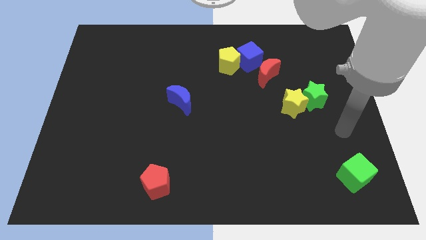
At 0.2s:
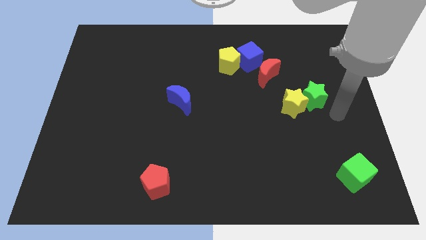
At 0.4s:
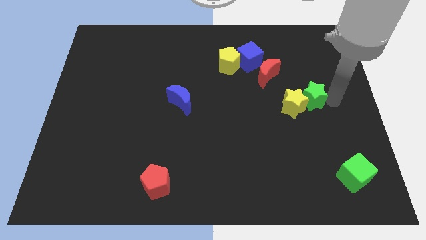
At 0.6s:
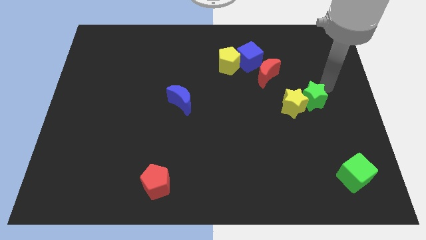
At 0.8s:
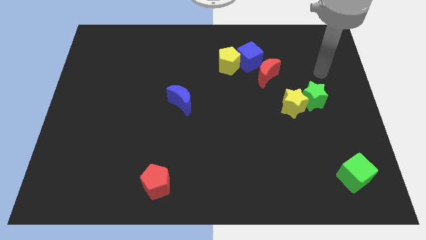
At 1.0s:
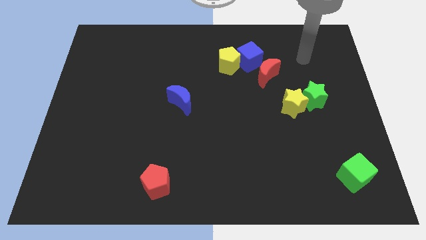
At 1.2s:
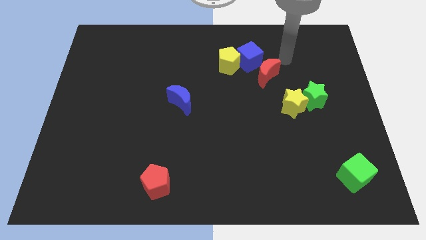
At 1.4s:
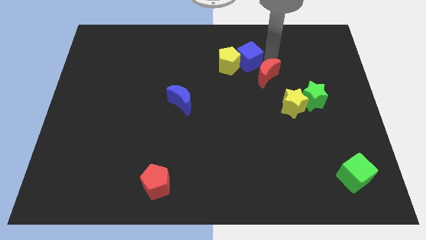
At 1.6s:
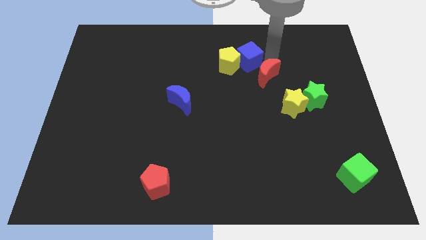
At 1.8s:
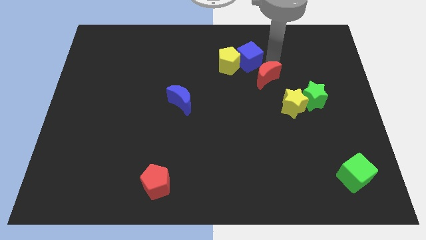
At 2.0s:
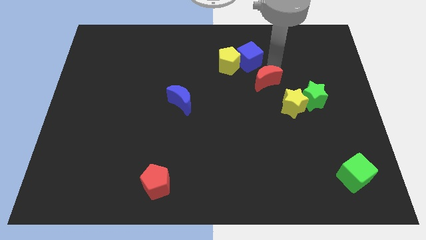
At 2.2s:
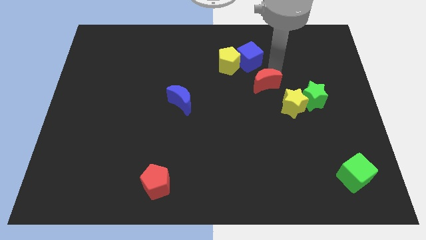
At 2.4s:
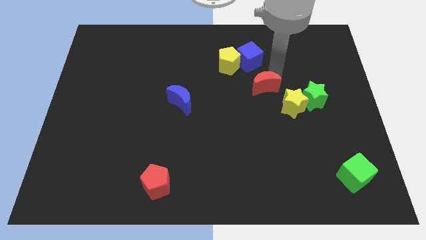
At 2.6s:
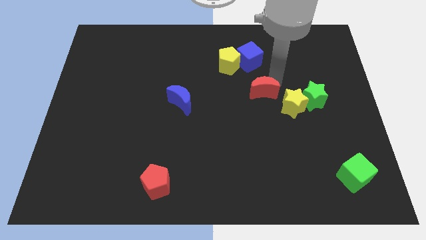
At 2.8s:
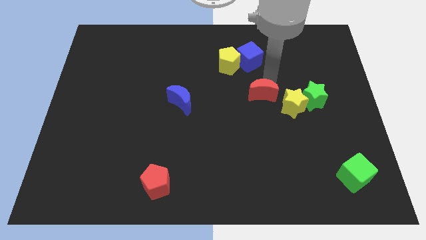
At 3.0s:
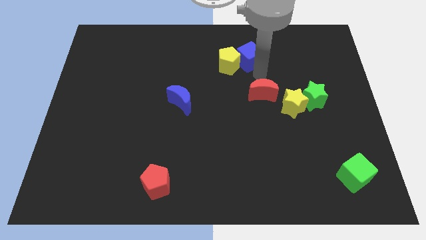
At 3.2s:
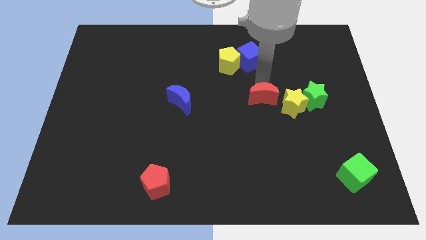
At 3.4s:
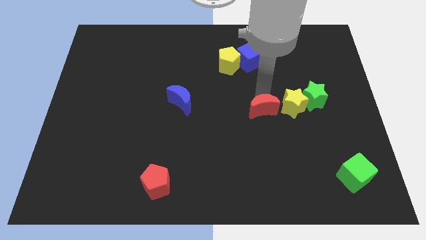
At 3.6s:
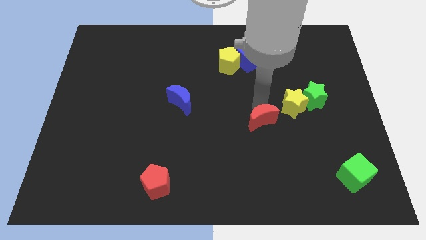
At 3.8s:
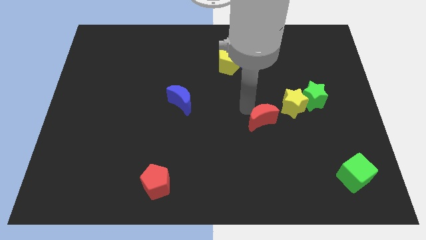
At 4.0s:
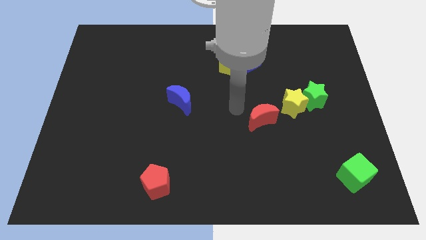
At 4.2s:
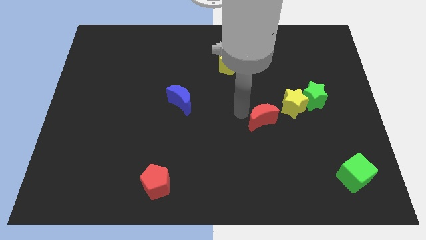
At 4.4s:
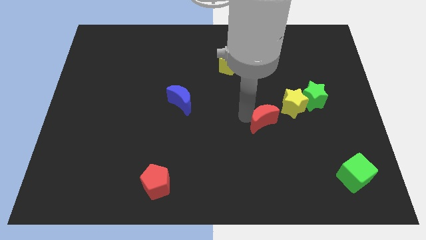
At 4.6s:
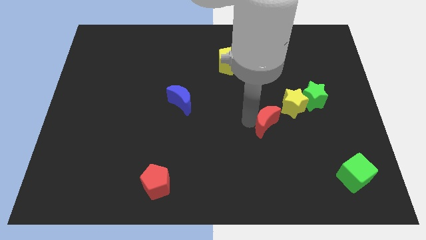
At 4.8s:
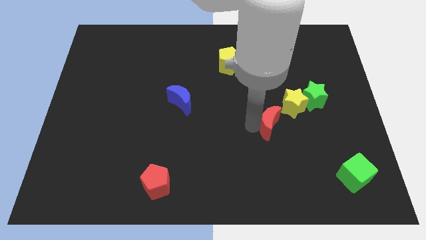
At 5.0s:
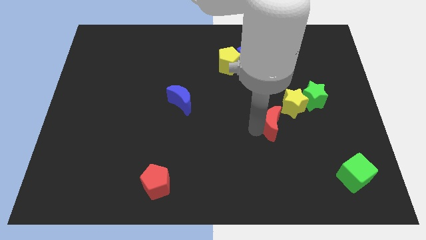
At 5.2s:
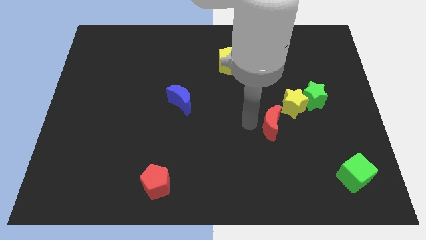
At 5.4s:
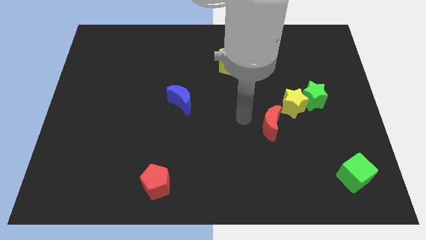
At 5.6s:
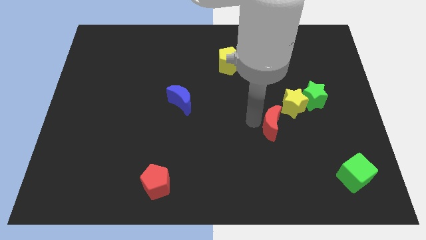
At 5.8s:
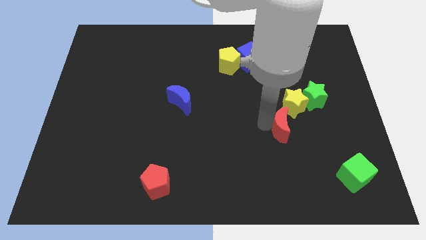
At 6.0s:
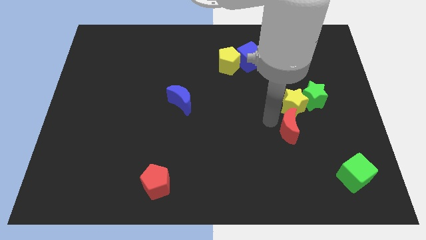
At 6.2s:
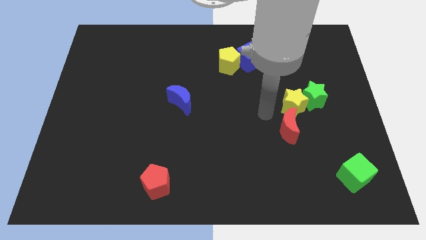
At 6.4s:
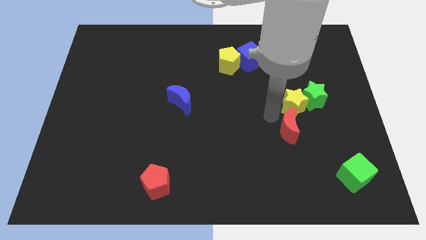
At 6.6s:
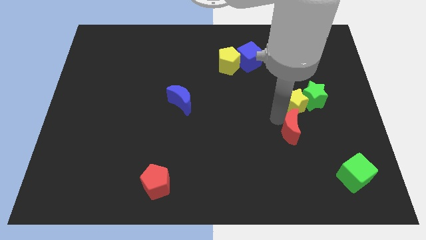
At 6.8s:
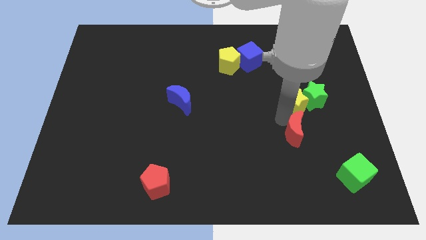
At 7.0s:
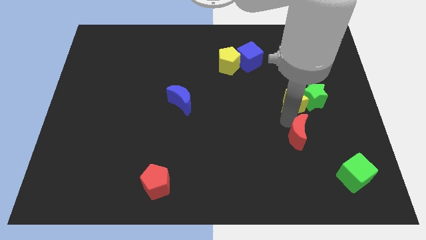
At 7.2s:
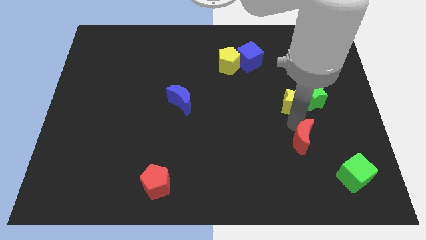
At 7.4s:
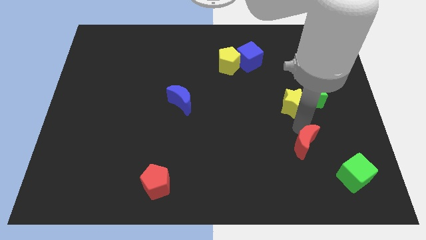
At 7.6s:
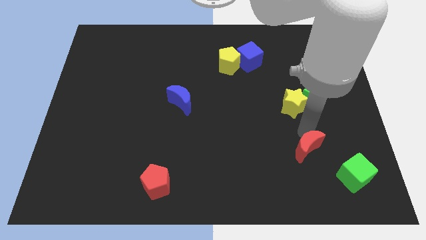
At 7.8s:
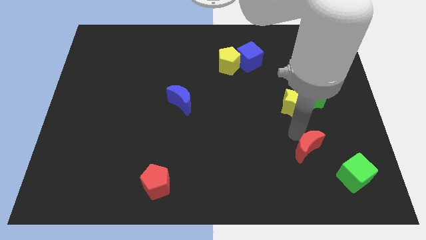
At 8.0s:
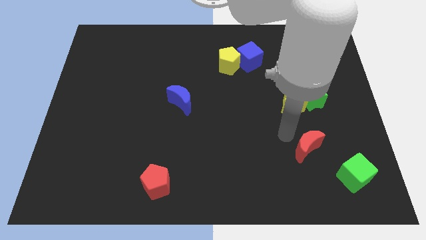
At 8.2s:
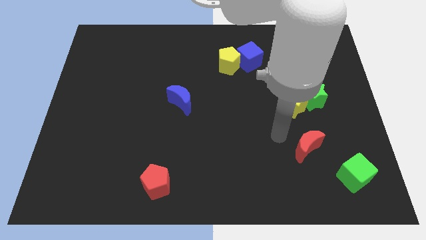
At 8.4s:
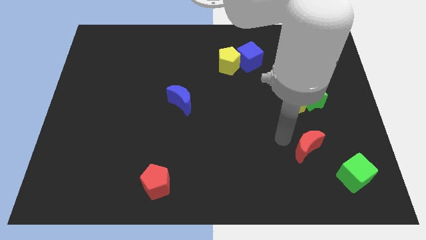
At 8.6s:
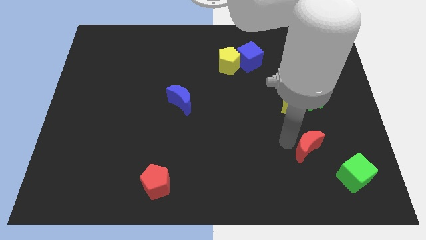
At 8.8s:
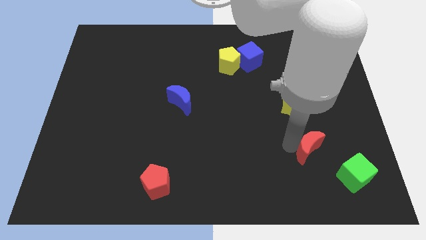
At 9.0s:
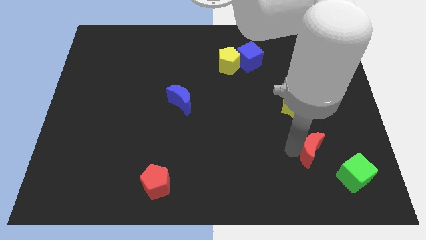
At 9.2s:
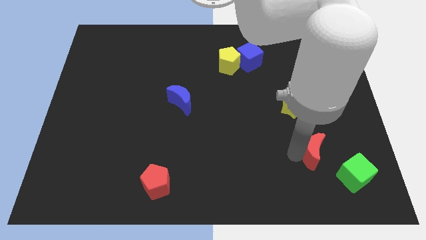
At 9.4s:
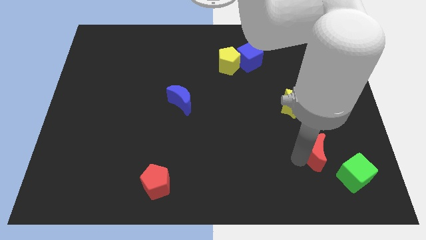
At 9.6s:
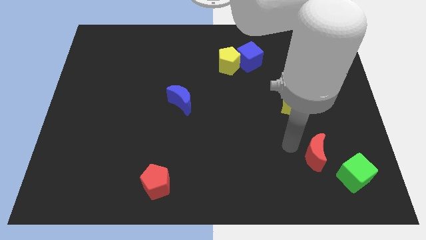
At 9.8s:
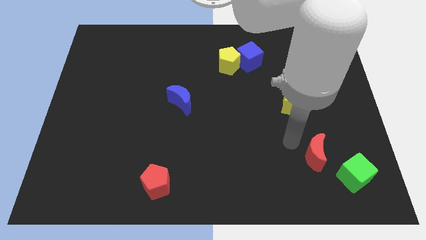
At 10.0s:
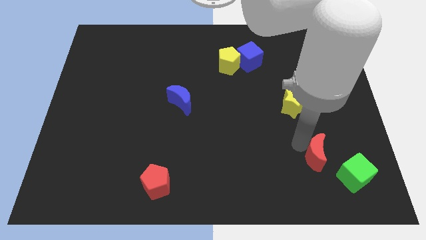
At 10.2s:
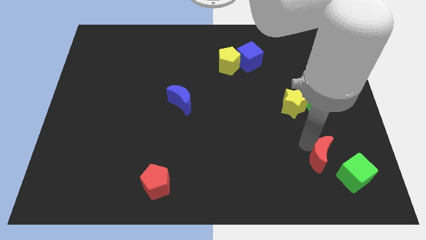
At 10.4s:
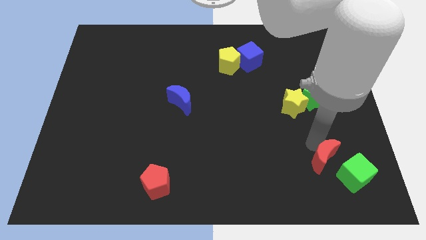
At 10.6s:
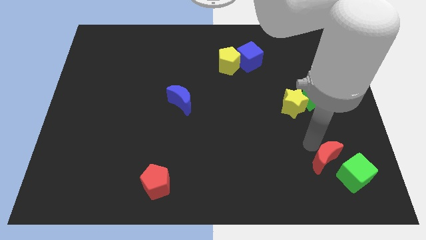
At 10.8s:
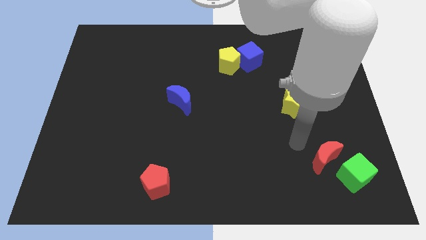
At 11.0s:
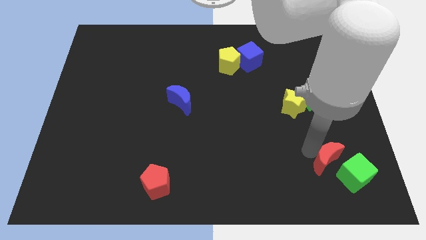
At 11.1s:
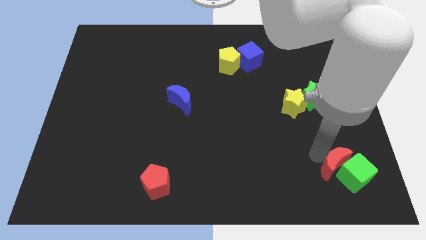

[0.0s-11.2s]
put the red moon to the green cube

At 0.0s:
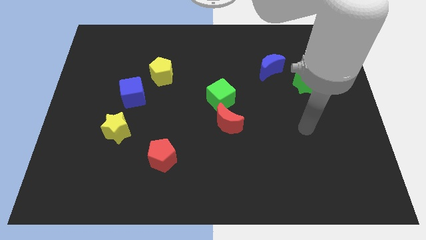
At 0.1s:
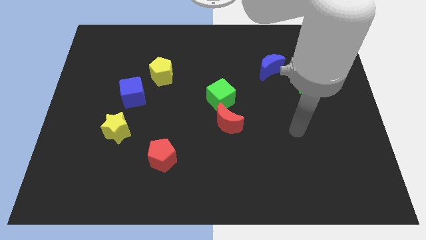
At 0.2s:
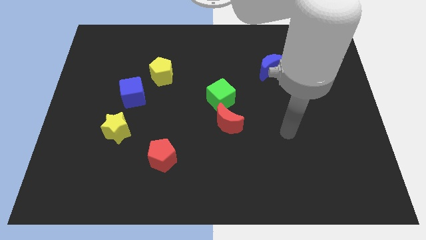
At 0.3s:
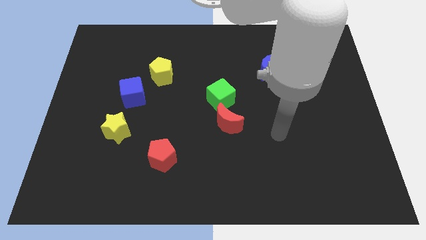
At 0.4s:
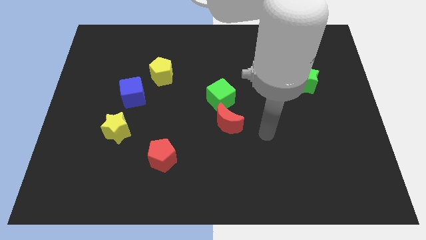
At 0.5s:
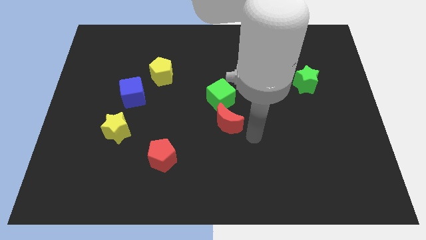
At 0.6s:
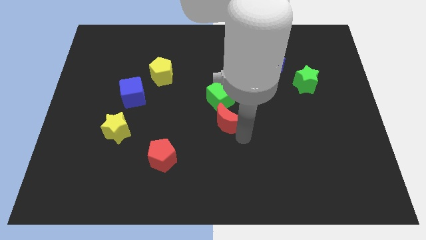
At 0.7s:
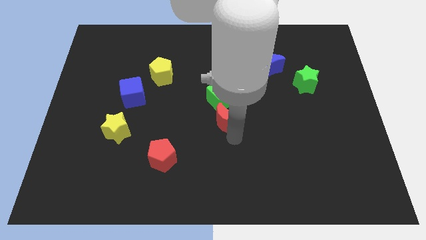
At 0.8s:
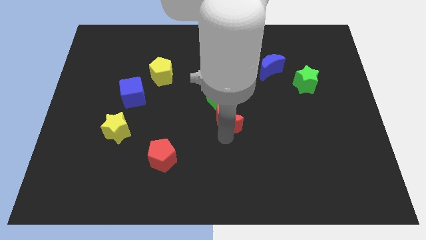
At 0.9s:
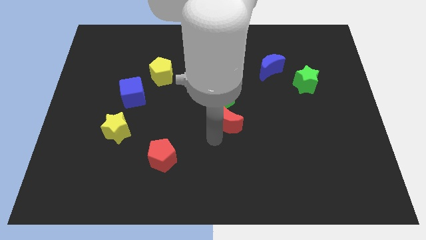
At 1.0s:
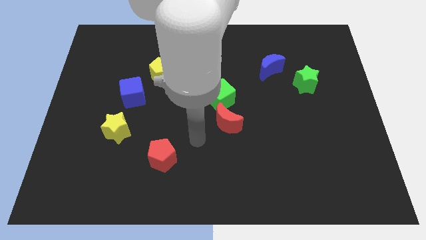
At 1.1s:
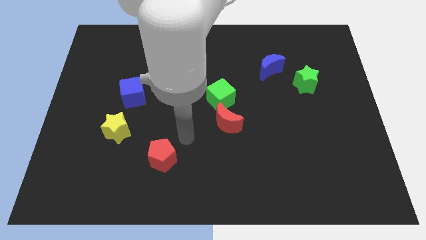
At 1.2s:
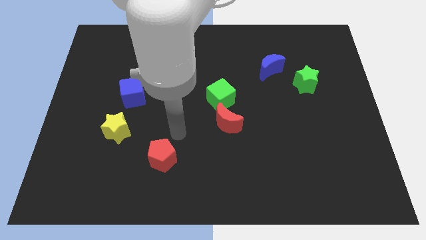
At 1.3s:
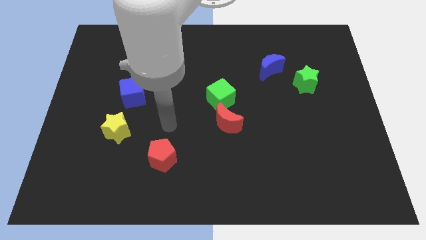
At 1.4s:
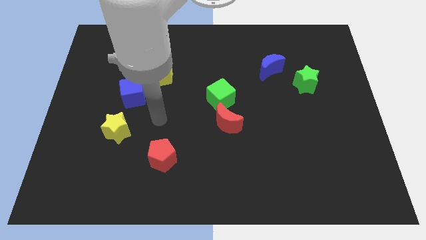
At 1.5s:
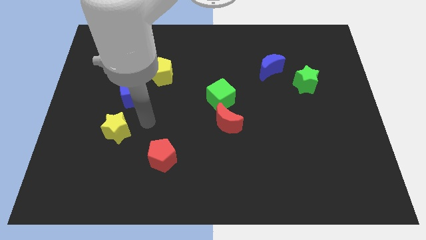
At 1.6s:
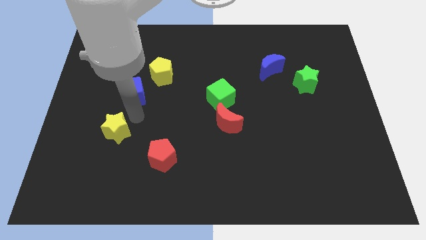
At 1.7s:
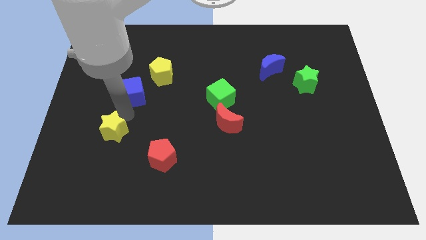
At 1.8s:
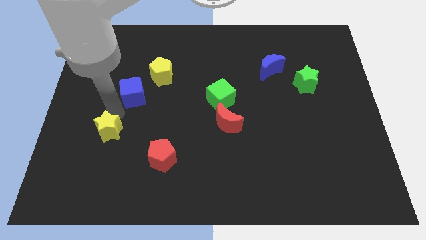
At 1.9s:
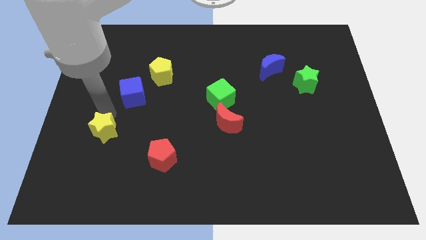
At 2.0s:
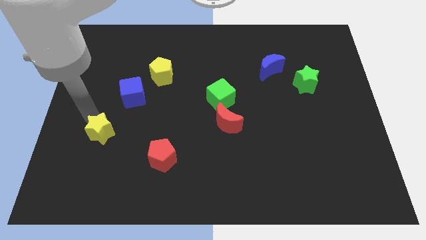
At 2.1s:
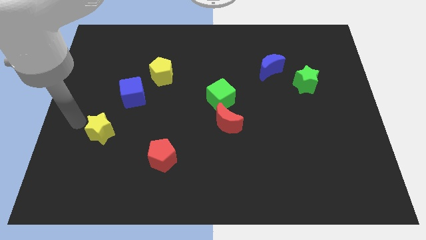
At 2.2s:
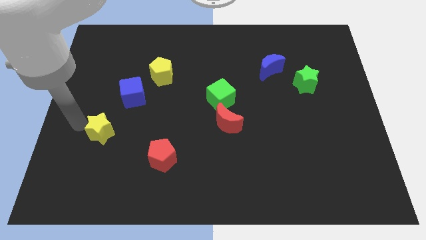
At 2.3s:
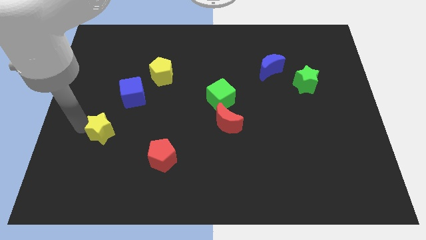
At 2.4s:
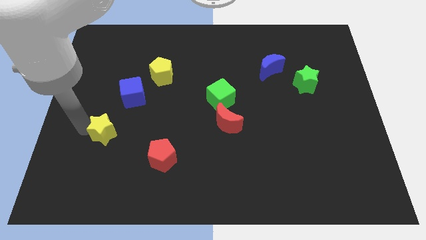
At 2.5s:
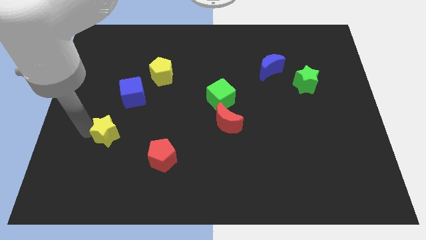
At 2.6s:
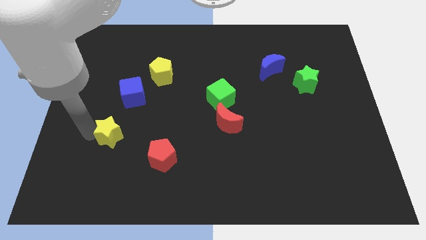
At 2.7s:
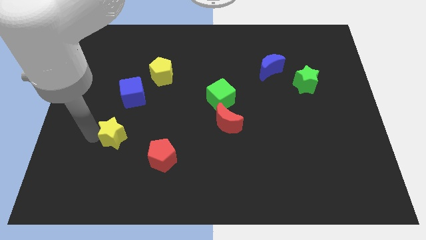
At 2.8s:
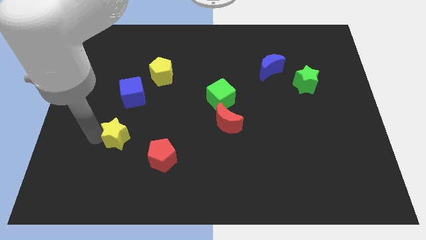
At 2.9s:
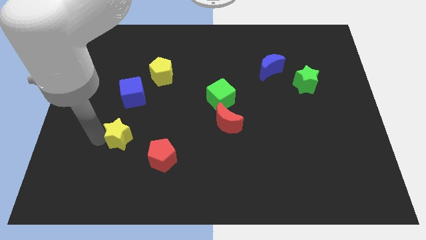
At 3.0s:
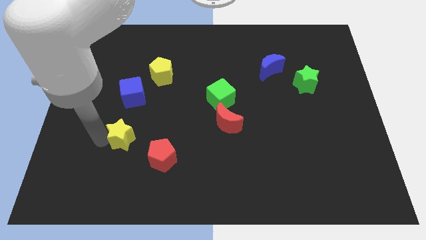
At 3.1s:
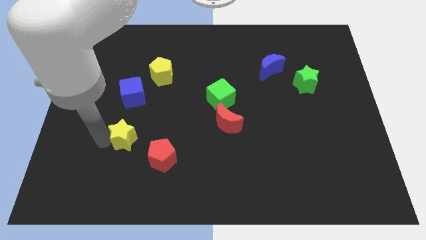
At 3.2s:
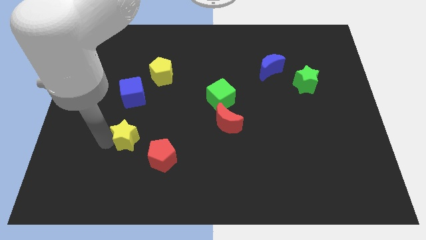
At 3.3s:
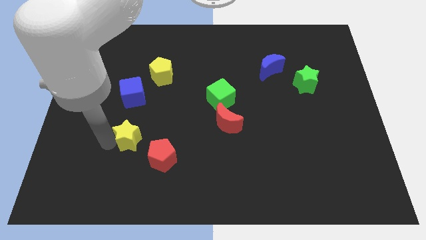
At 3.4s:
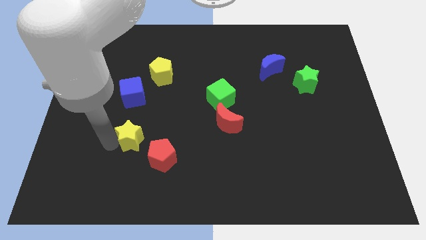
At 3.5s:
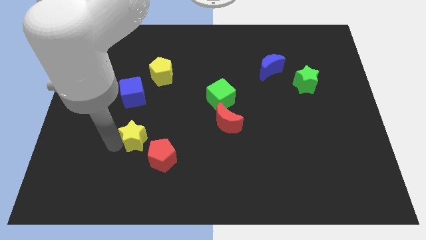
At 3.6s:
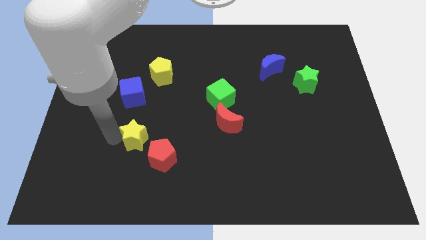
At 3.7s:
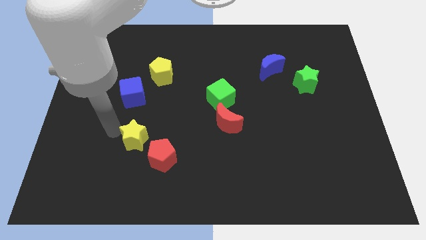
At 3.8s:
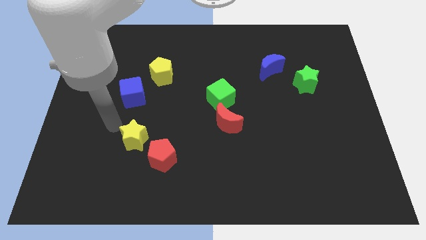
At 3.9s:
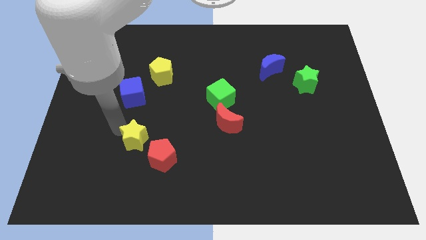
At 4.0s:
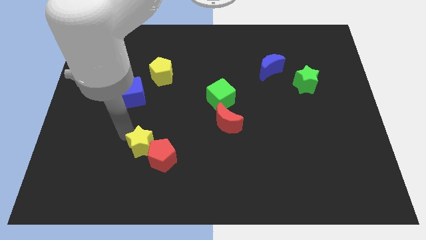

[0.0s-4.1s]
put the yellow star close to the red pentagon
